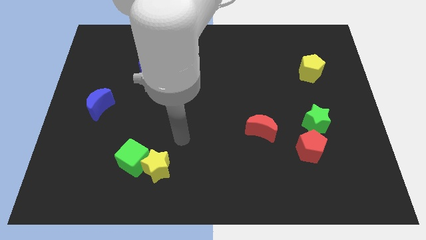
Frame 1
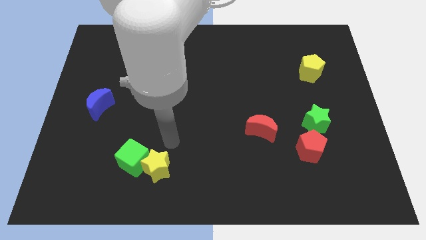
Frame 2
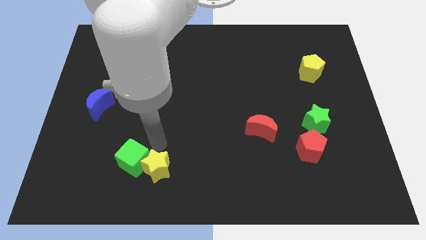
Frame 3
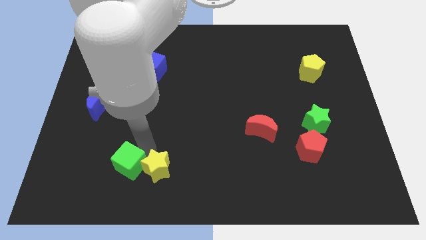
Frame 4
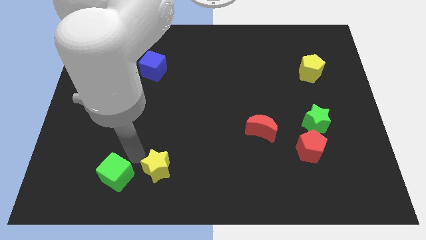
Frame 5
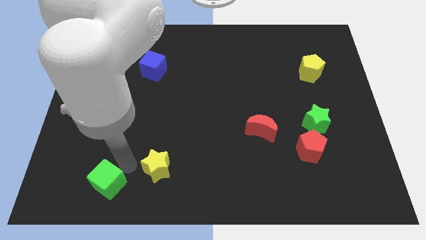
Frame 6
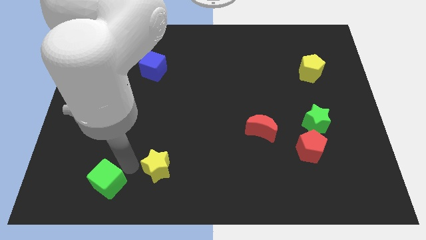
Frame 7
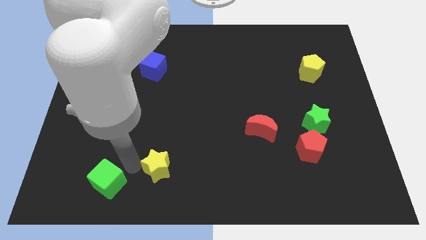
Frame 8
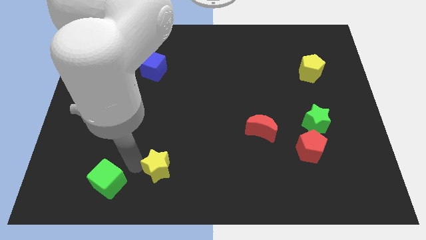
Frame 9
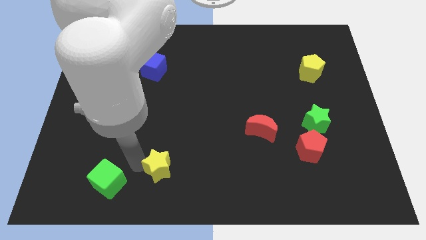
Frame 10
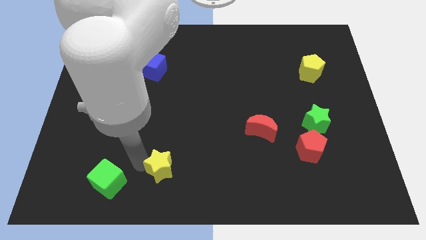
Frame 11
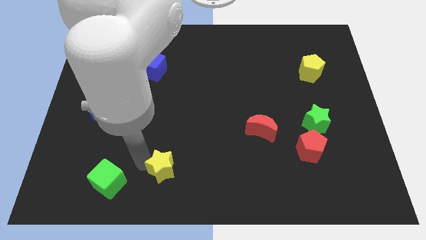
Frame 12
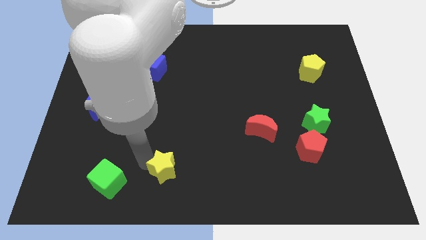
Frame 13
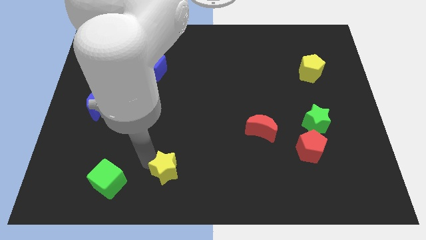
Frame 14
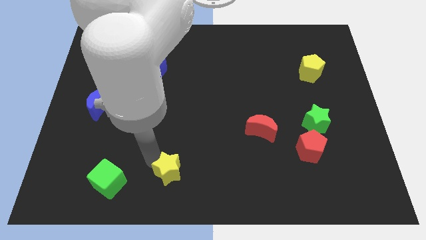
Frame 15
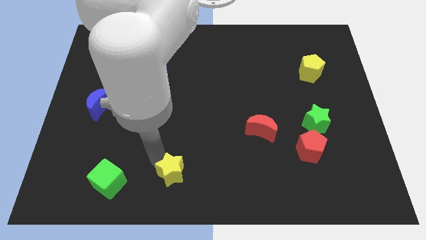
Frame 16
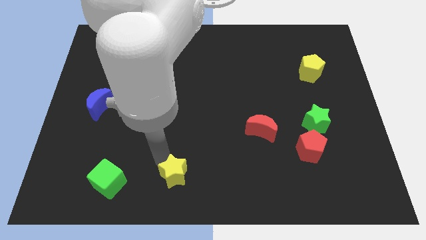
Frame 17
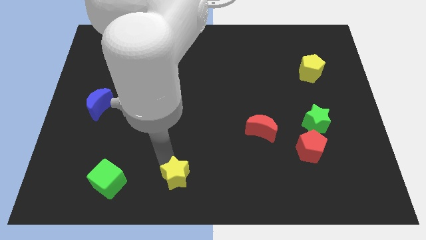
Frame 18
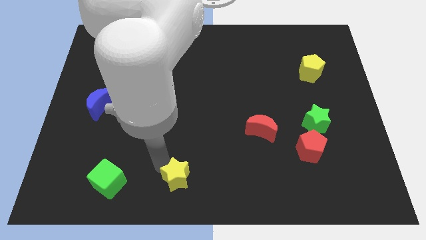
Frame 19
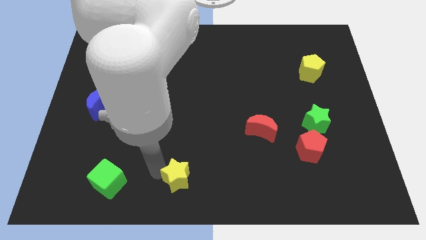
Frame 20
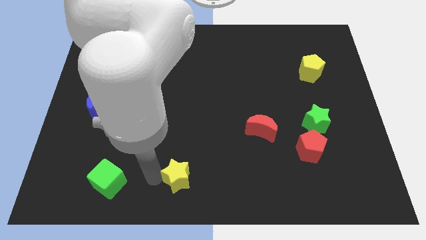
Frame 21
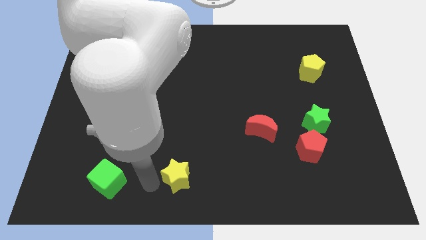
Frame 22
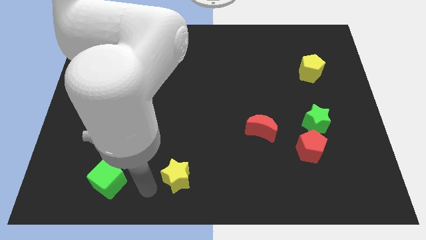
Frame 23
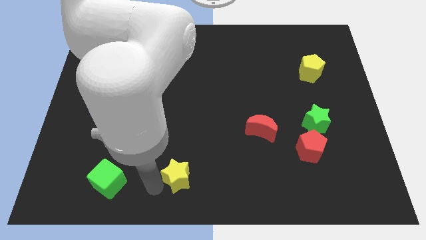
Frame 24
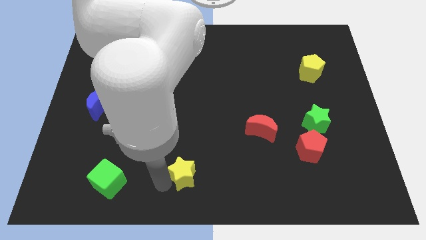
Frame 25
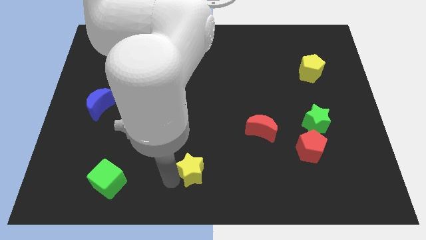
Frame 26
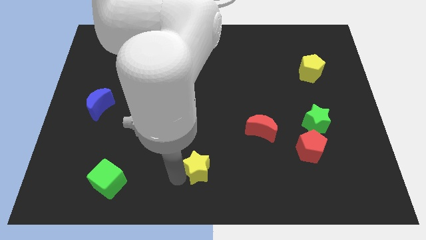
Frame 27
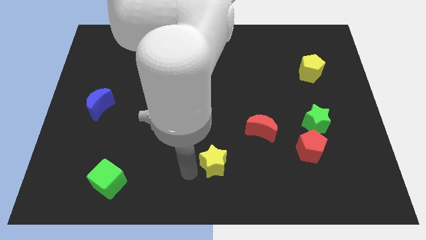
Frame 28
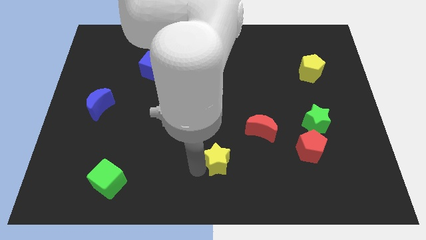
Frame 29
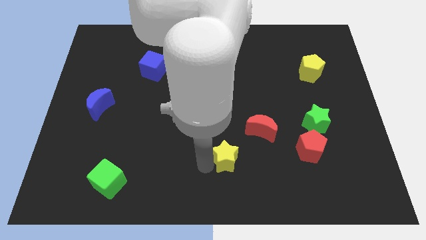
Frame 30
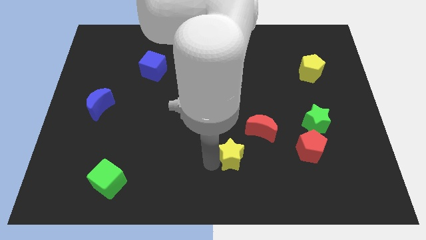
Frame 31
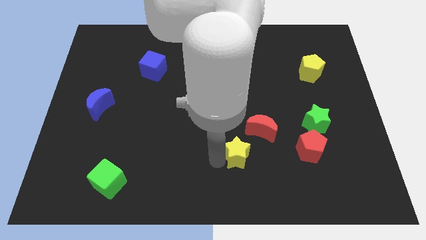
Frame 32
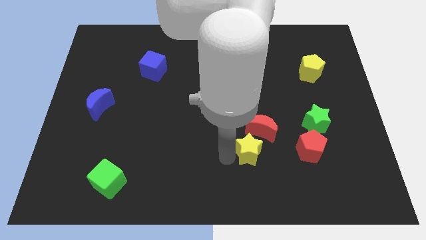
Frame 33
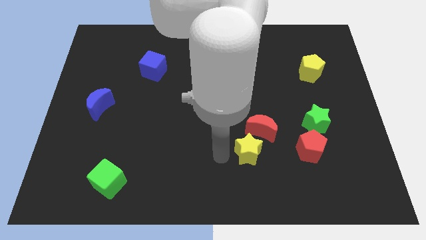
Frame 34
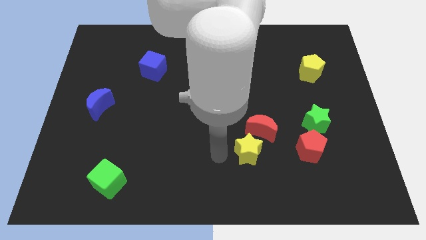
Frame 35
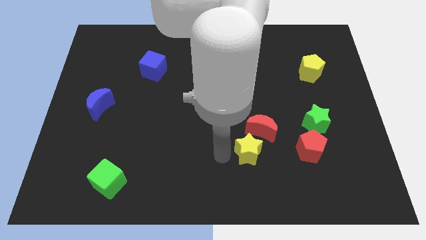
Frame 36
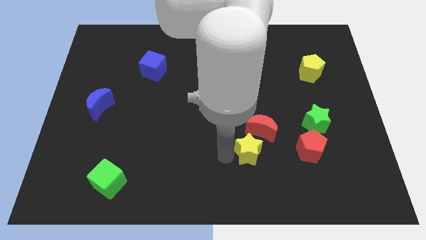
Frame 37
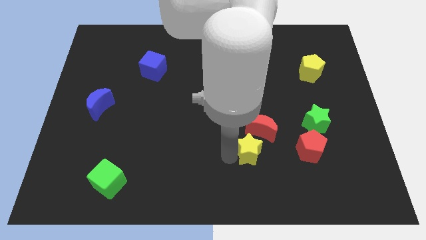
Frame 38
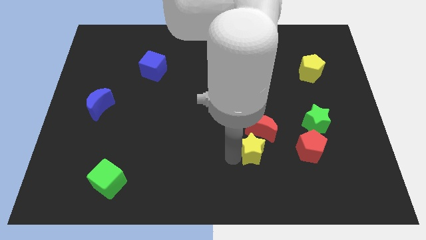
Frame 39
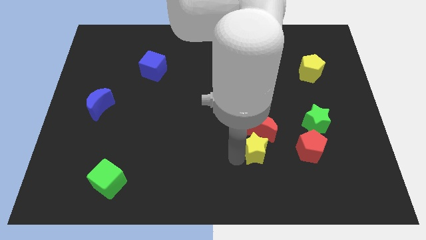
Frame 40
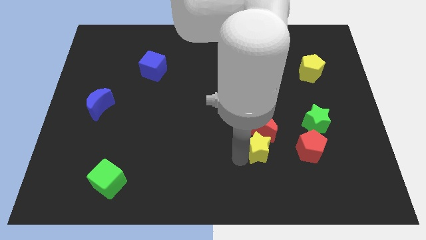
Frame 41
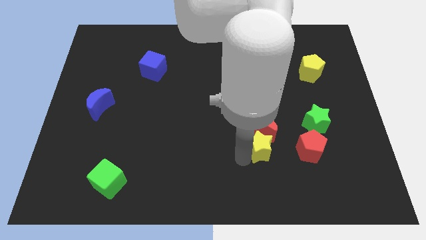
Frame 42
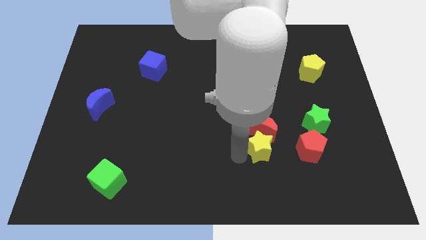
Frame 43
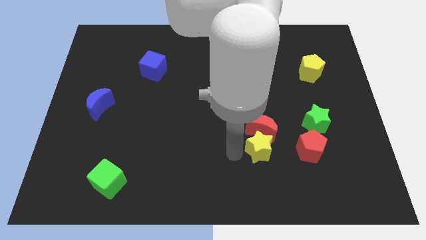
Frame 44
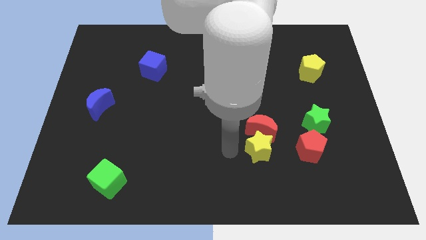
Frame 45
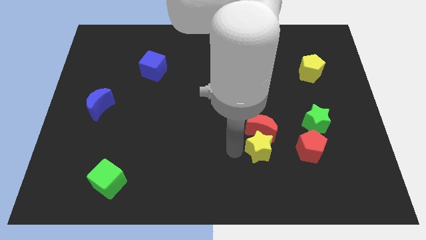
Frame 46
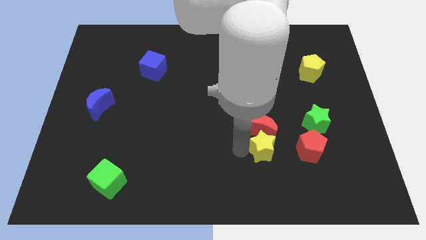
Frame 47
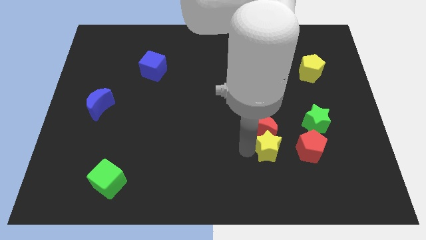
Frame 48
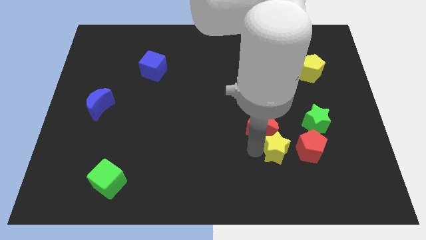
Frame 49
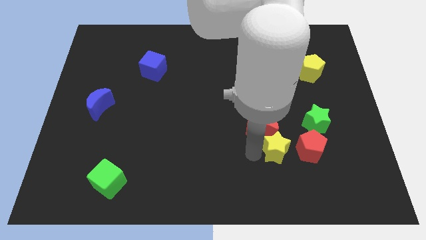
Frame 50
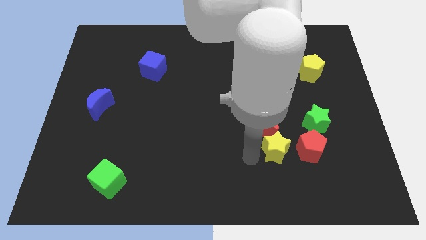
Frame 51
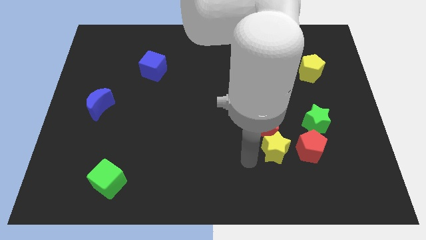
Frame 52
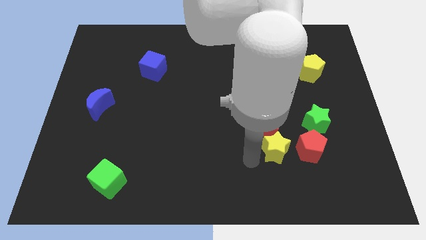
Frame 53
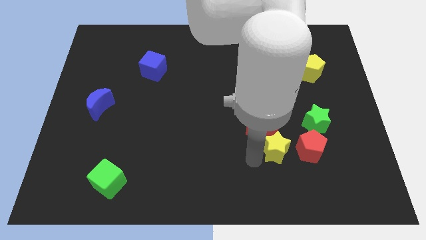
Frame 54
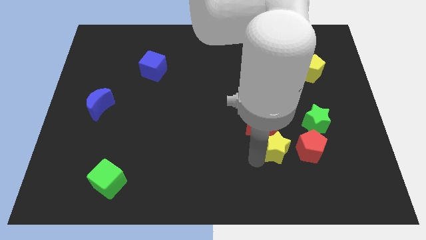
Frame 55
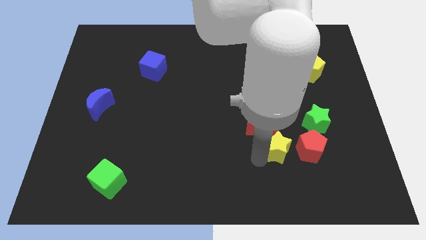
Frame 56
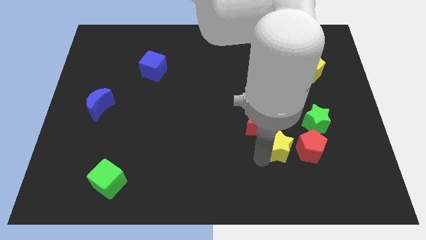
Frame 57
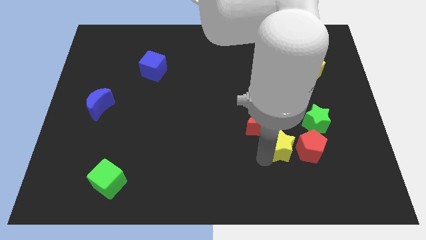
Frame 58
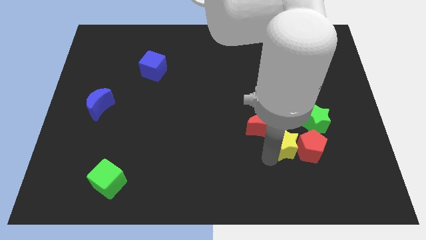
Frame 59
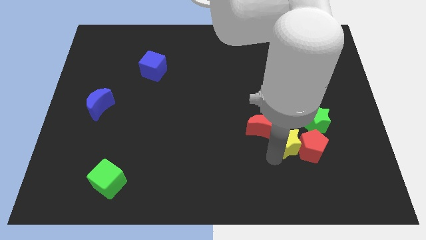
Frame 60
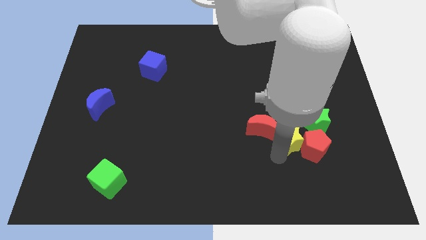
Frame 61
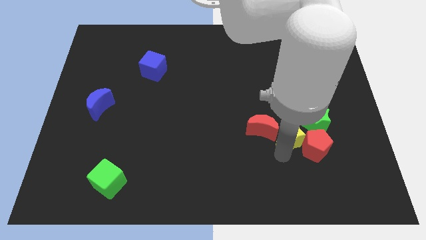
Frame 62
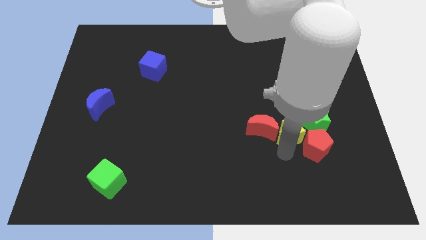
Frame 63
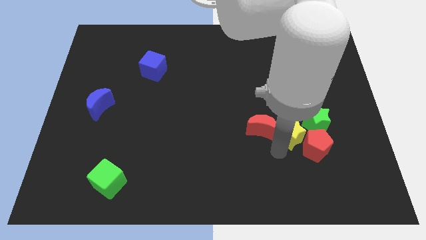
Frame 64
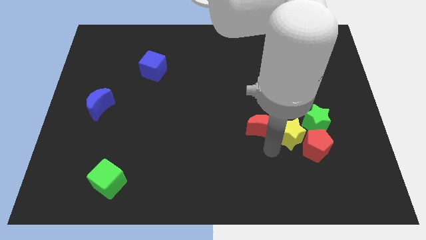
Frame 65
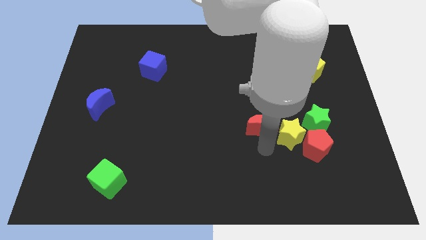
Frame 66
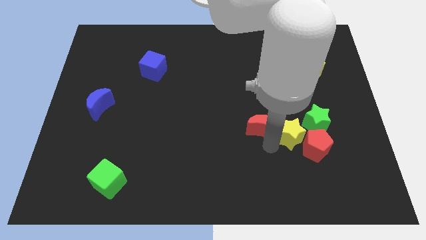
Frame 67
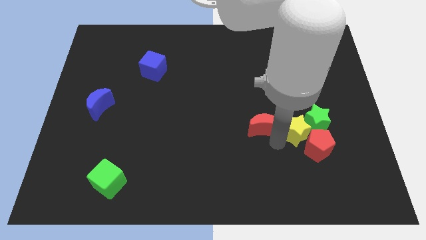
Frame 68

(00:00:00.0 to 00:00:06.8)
put the yellow star towards the green star
